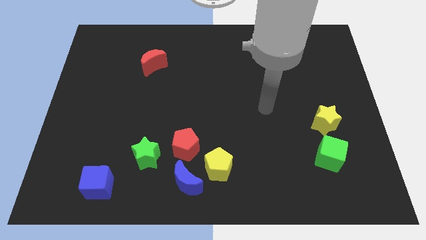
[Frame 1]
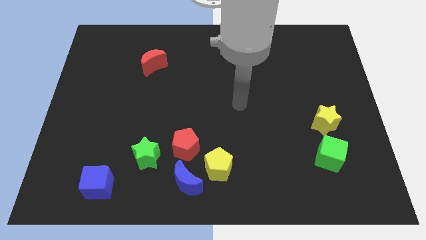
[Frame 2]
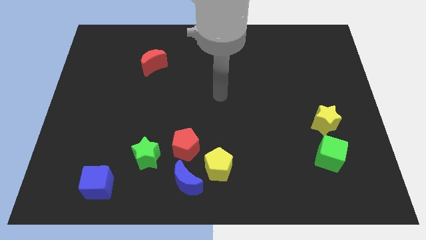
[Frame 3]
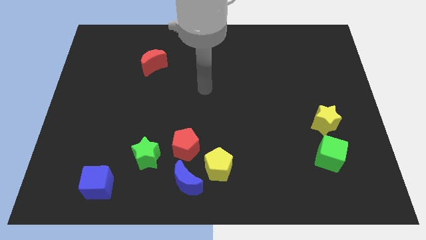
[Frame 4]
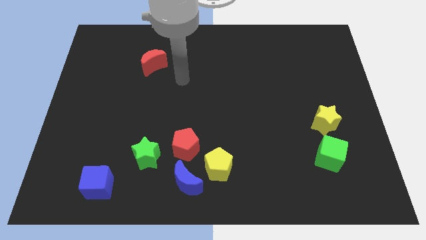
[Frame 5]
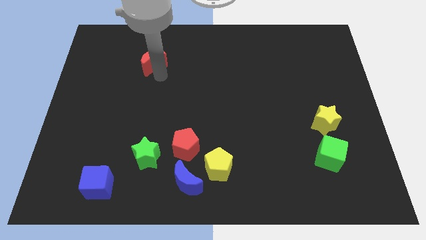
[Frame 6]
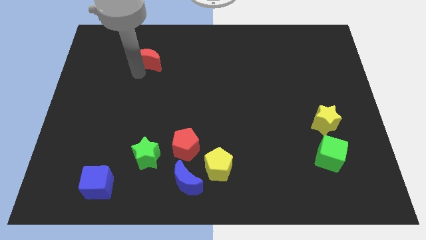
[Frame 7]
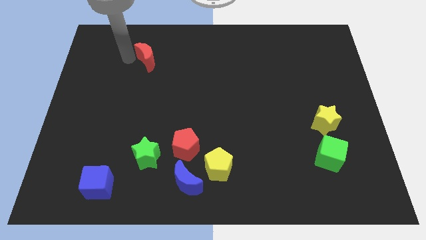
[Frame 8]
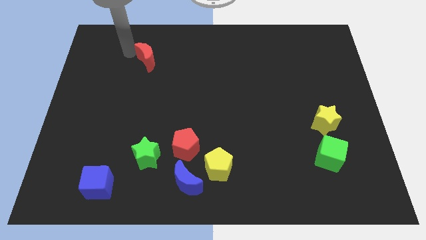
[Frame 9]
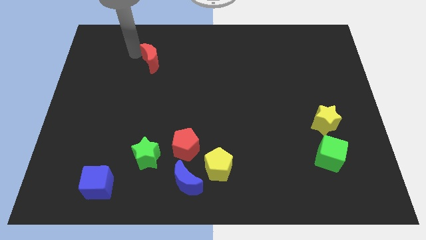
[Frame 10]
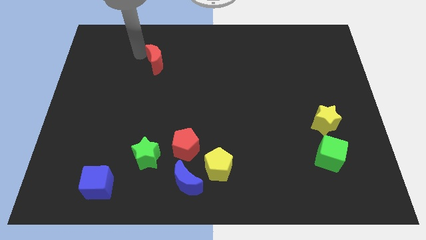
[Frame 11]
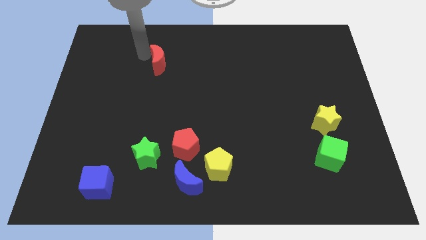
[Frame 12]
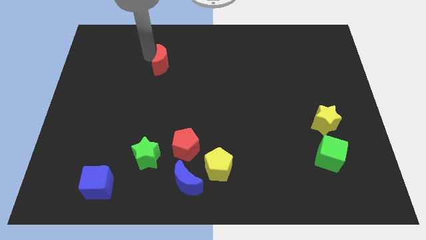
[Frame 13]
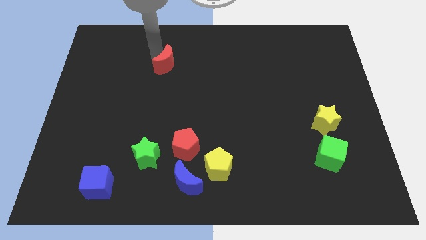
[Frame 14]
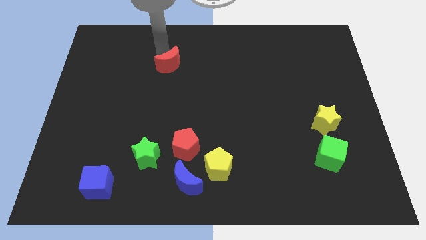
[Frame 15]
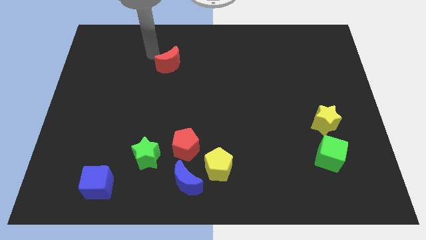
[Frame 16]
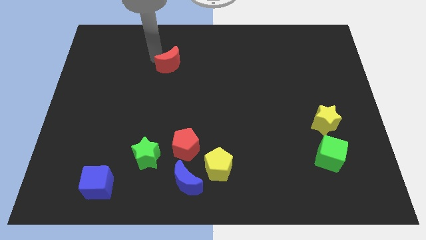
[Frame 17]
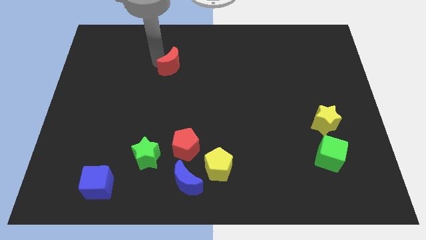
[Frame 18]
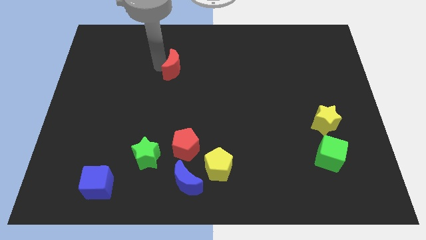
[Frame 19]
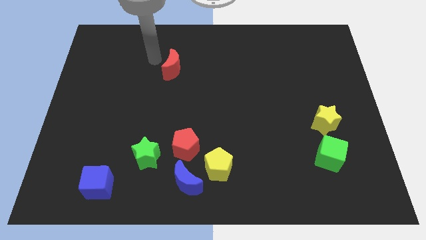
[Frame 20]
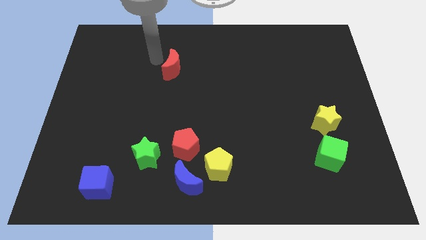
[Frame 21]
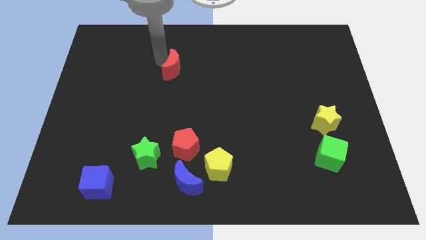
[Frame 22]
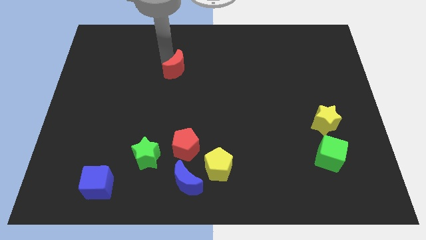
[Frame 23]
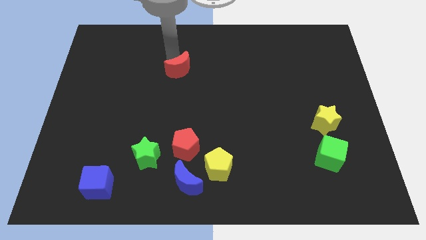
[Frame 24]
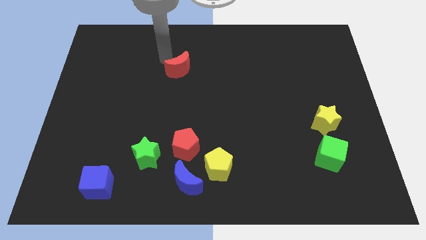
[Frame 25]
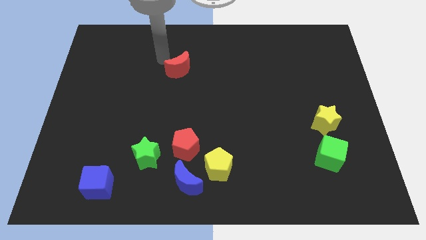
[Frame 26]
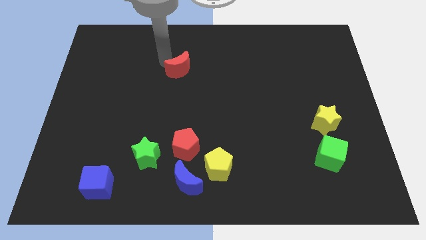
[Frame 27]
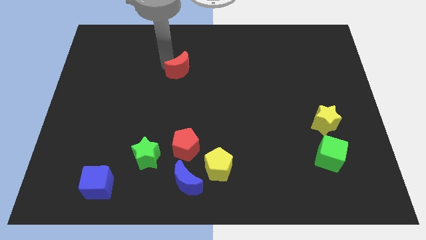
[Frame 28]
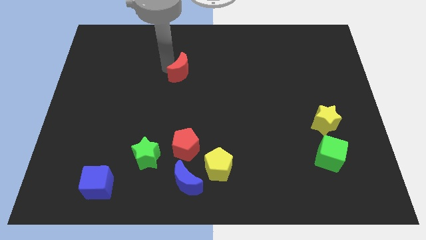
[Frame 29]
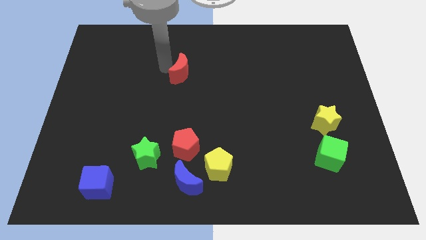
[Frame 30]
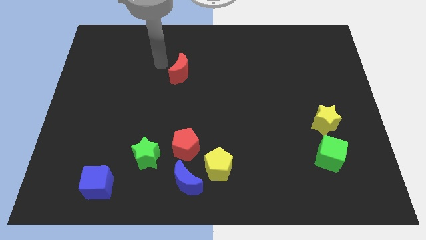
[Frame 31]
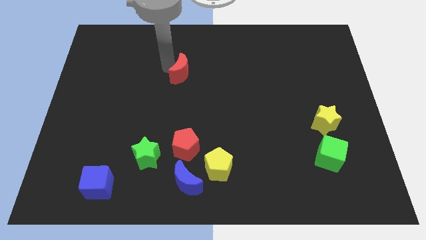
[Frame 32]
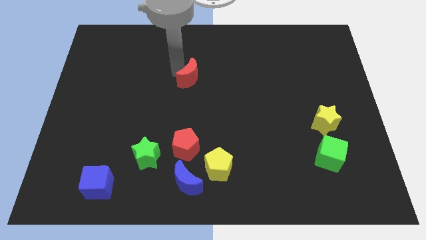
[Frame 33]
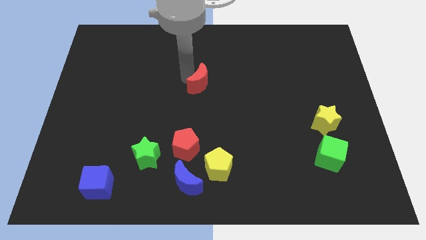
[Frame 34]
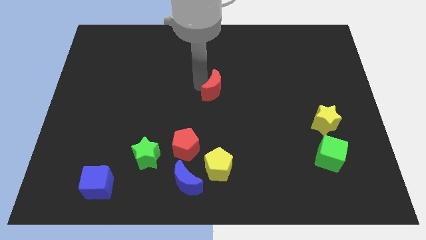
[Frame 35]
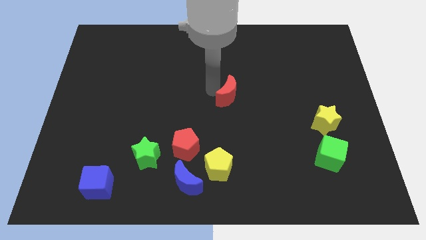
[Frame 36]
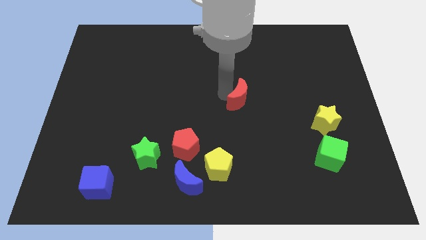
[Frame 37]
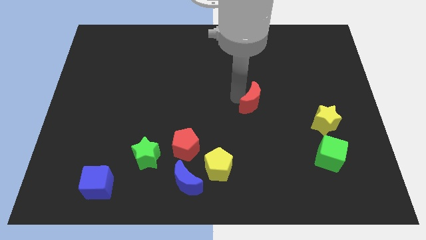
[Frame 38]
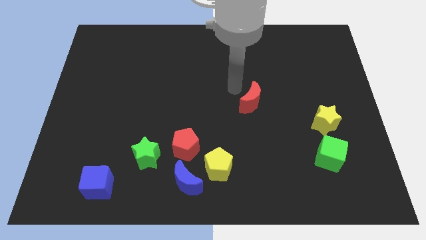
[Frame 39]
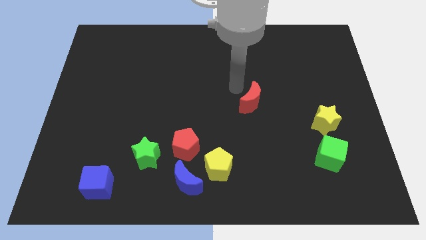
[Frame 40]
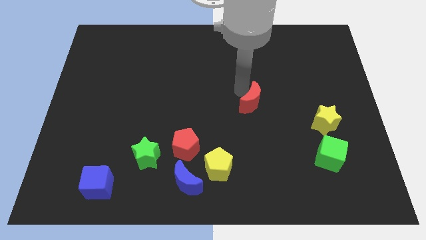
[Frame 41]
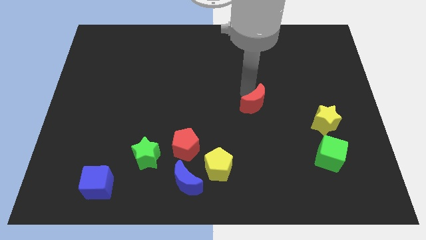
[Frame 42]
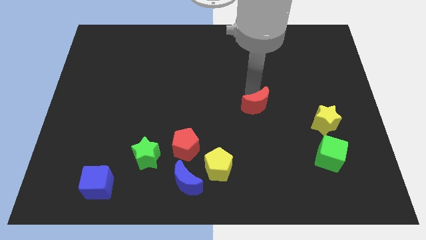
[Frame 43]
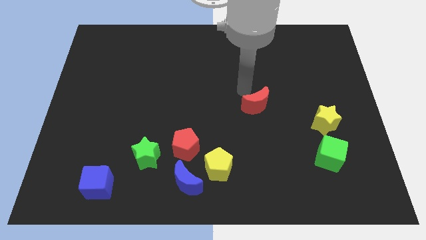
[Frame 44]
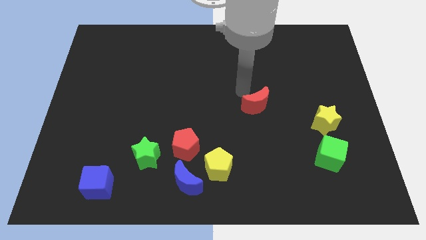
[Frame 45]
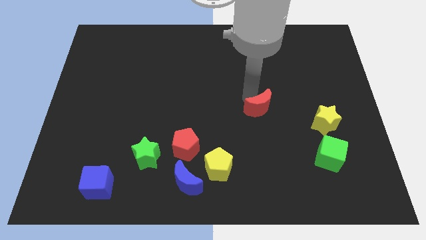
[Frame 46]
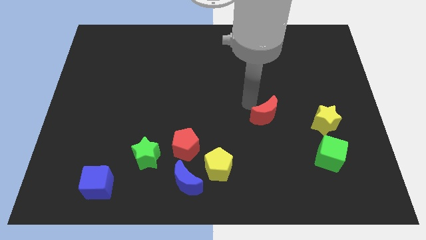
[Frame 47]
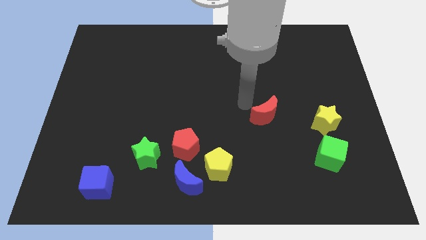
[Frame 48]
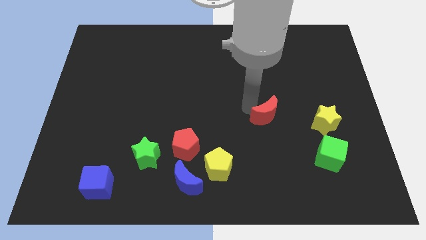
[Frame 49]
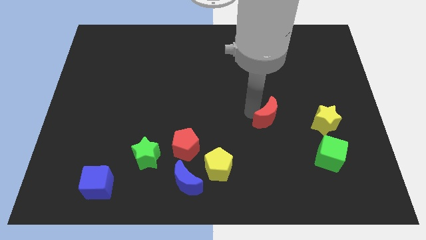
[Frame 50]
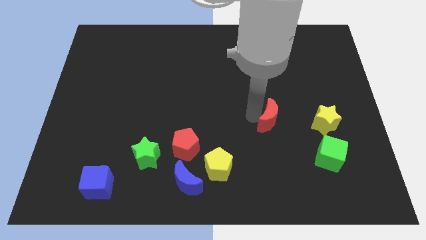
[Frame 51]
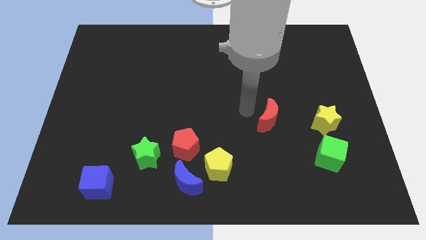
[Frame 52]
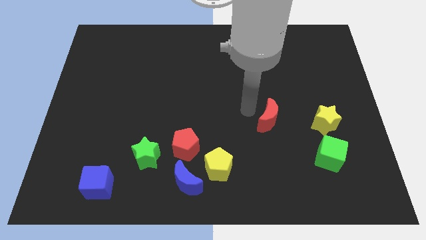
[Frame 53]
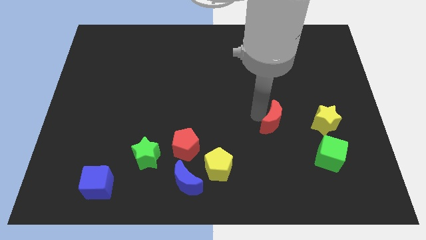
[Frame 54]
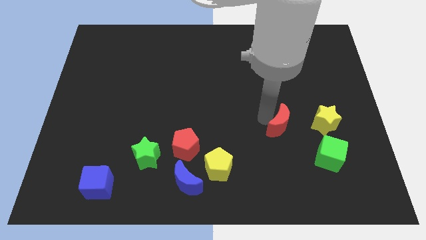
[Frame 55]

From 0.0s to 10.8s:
put the red moon to the top left side of the green cube

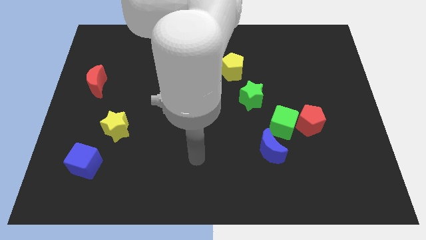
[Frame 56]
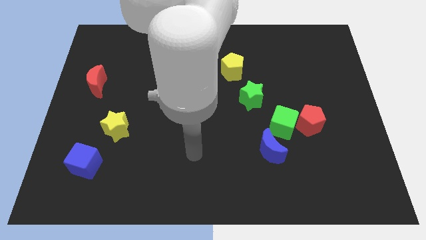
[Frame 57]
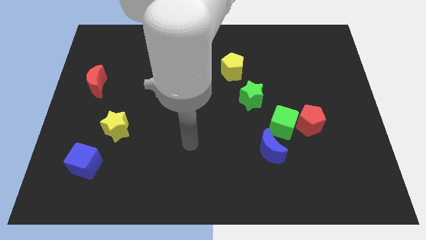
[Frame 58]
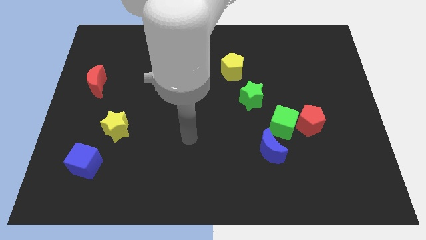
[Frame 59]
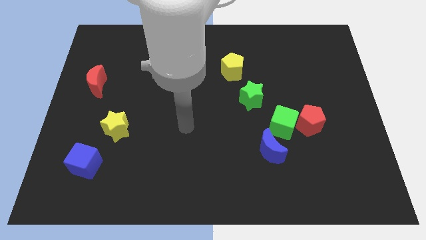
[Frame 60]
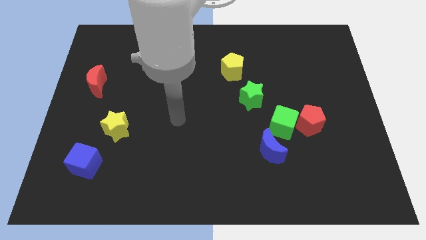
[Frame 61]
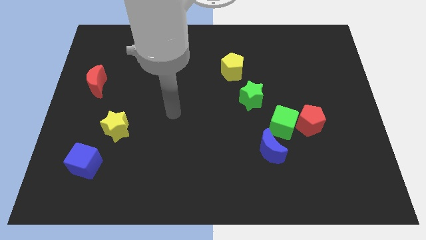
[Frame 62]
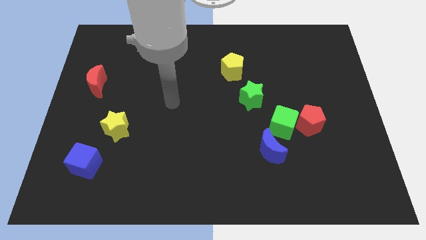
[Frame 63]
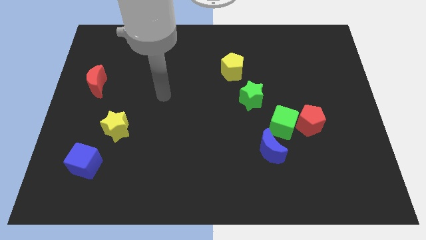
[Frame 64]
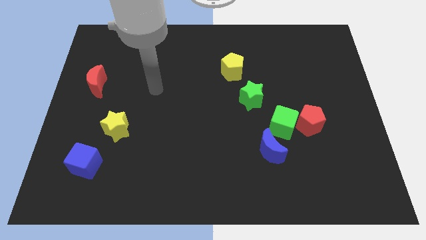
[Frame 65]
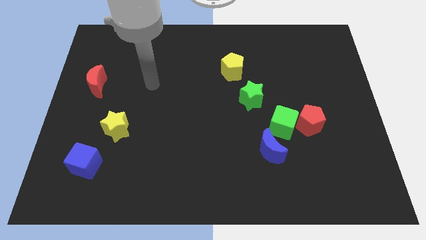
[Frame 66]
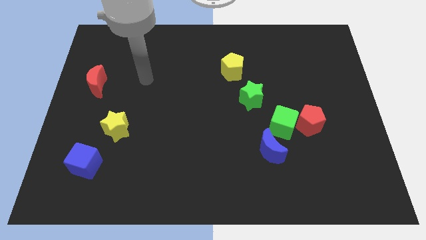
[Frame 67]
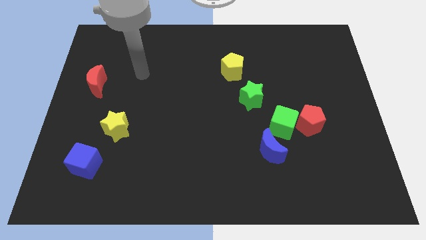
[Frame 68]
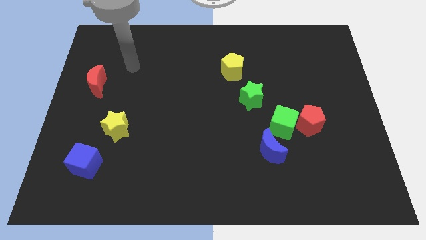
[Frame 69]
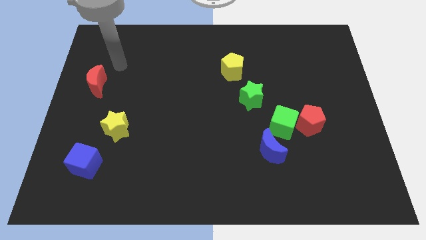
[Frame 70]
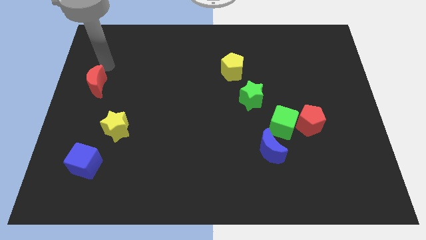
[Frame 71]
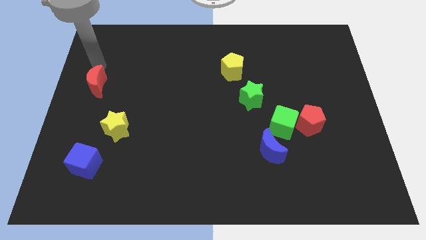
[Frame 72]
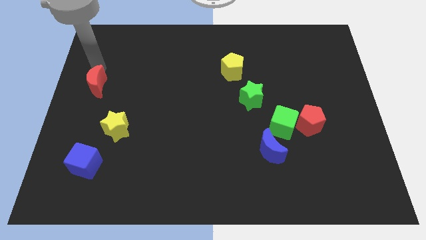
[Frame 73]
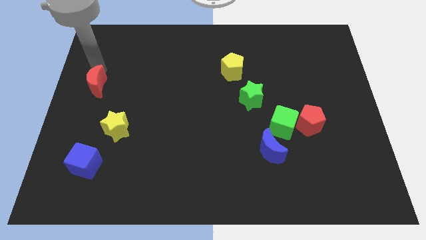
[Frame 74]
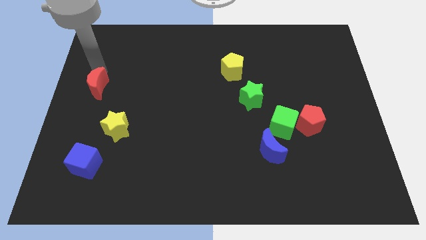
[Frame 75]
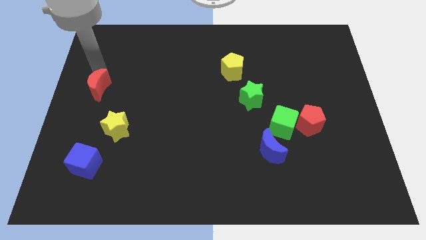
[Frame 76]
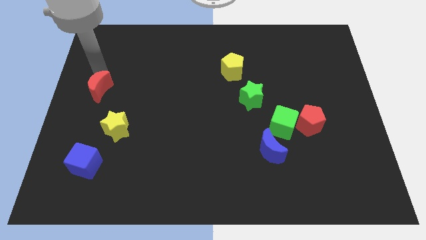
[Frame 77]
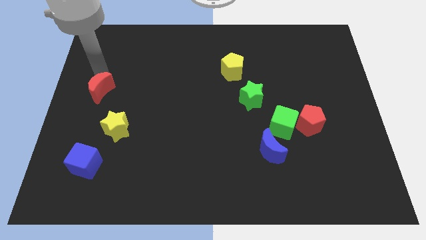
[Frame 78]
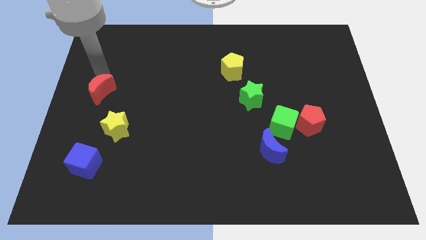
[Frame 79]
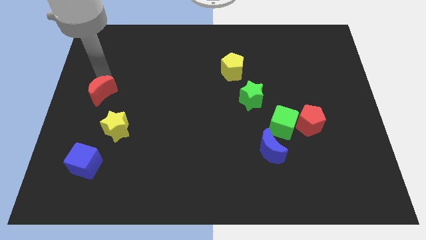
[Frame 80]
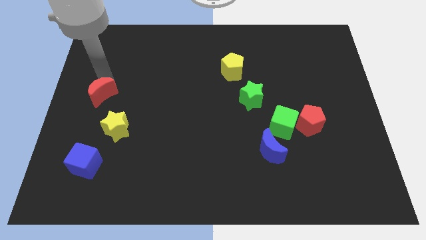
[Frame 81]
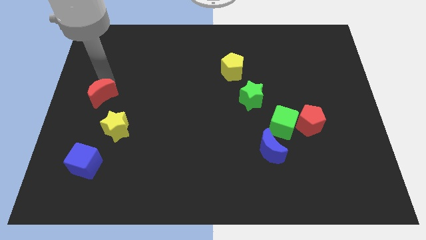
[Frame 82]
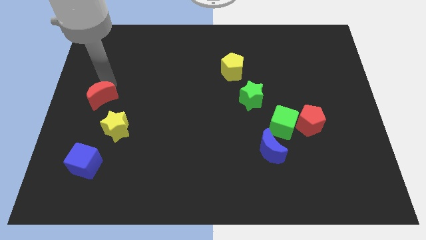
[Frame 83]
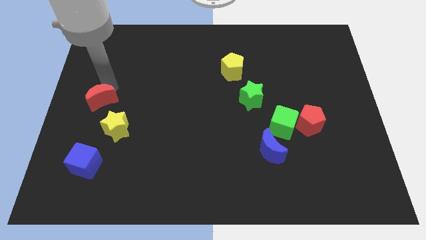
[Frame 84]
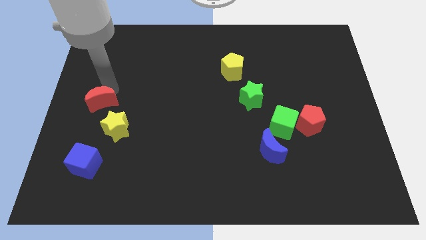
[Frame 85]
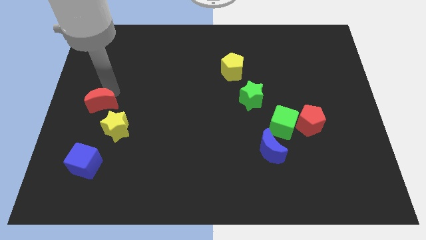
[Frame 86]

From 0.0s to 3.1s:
slide the red moon to the top of the blue cube
